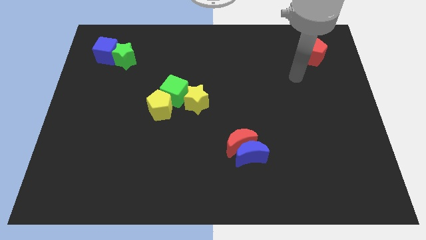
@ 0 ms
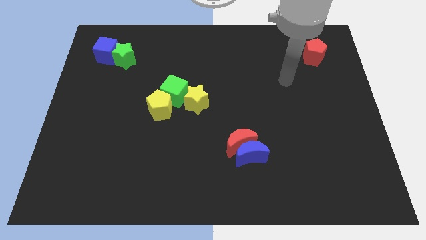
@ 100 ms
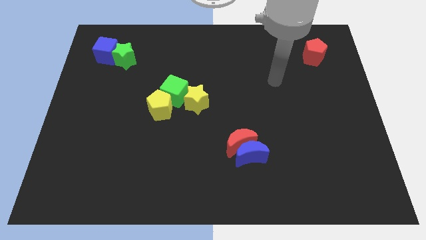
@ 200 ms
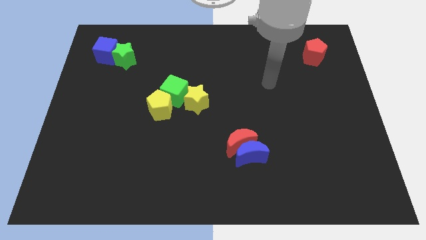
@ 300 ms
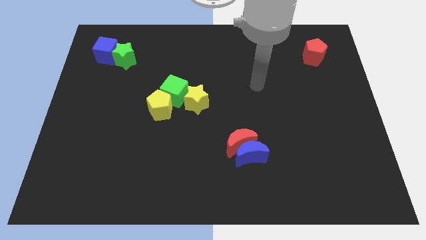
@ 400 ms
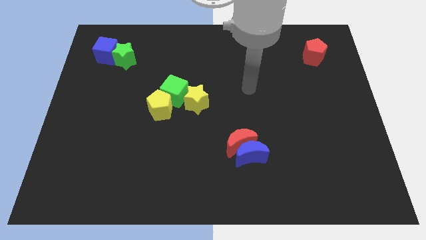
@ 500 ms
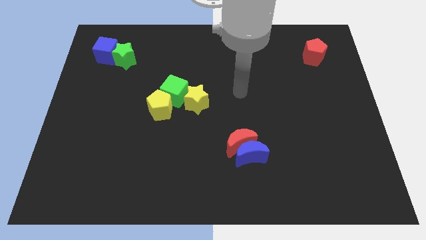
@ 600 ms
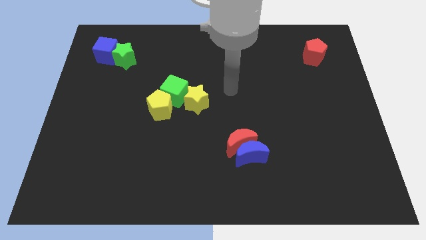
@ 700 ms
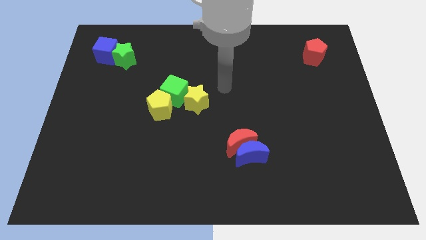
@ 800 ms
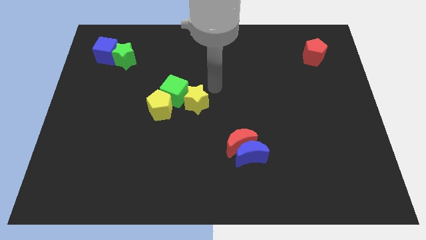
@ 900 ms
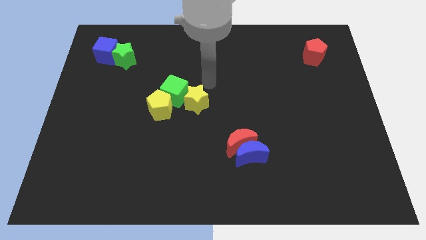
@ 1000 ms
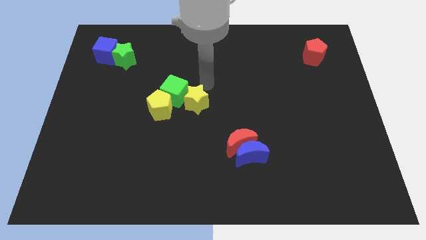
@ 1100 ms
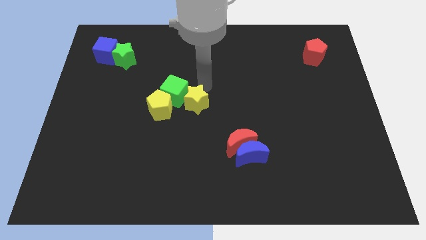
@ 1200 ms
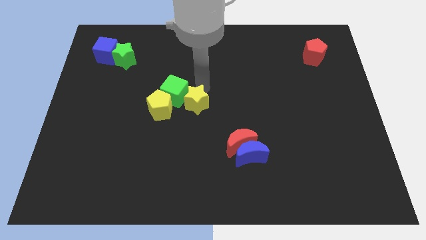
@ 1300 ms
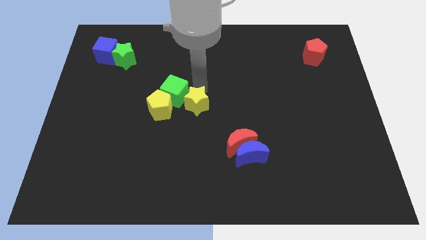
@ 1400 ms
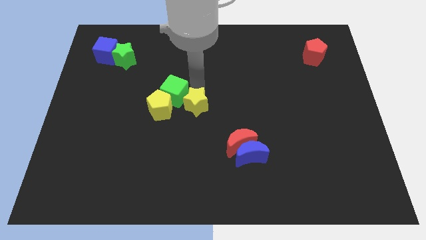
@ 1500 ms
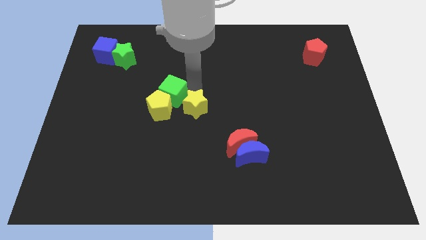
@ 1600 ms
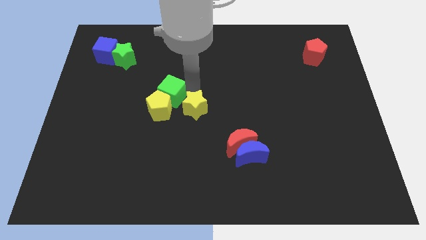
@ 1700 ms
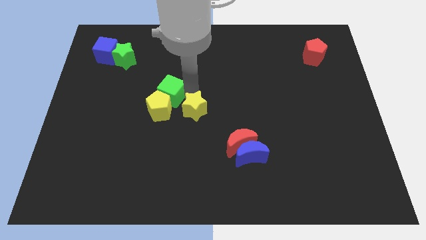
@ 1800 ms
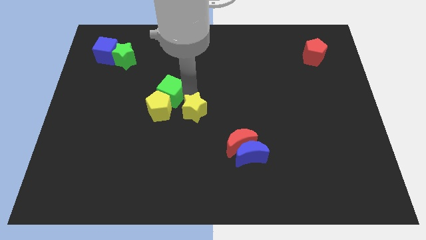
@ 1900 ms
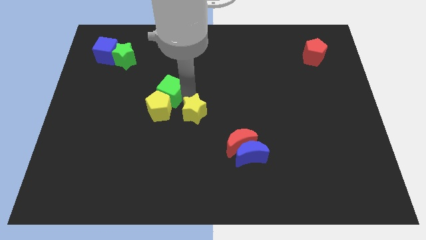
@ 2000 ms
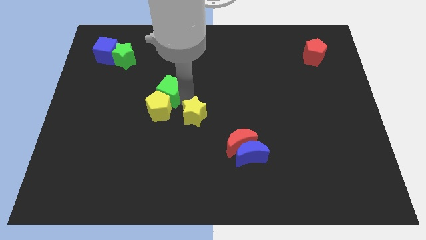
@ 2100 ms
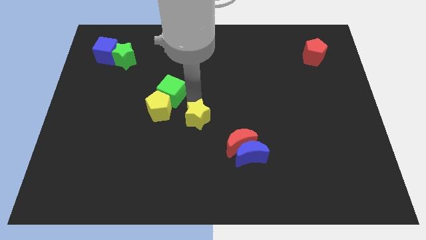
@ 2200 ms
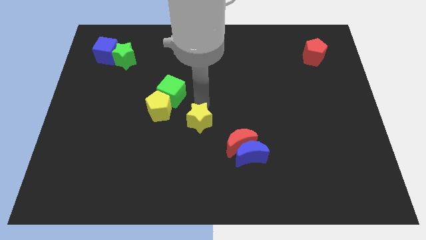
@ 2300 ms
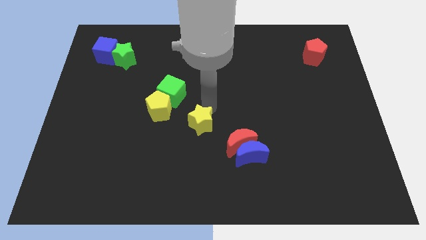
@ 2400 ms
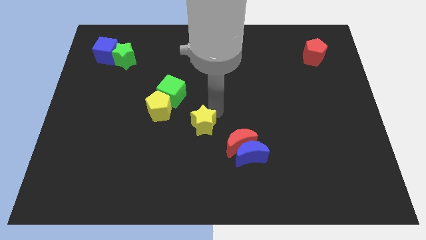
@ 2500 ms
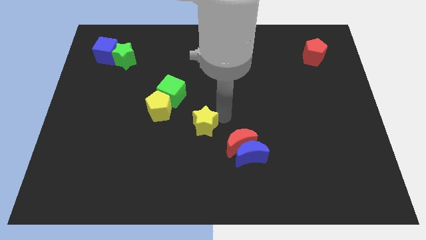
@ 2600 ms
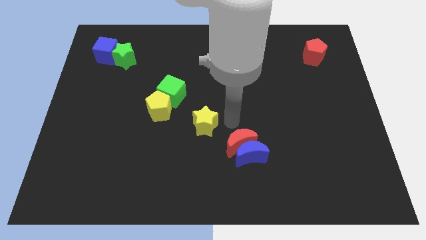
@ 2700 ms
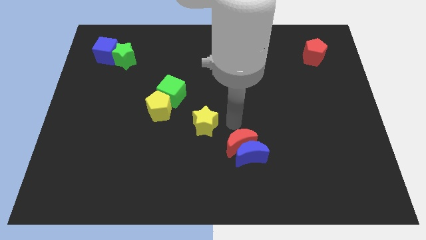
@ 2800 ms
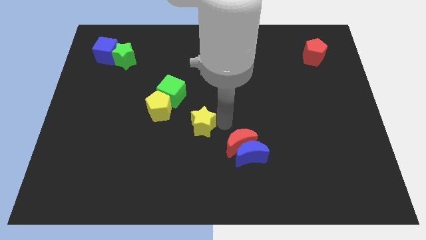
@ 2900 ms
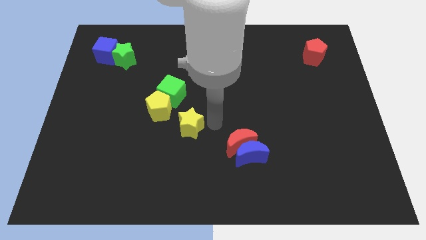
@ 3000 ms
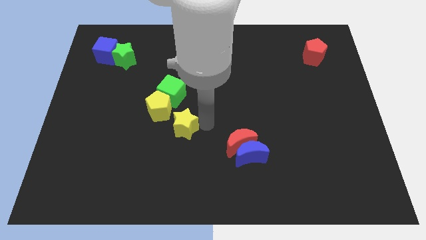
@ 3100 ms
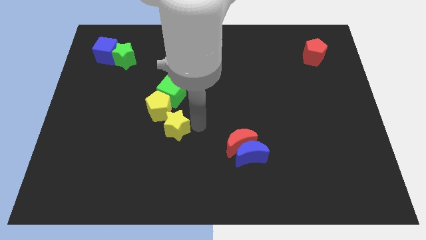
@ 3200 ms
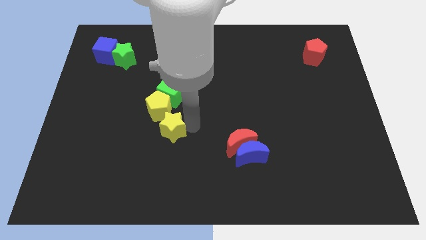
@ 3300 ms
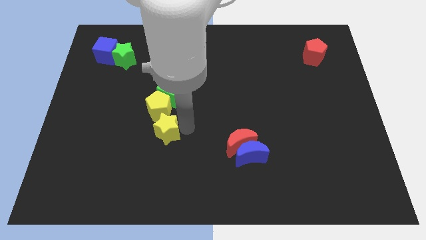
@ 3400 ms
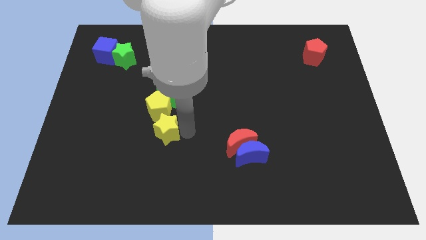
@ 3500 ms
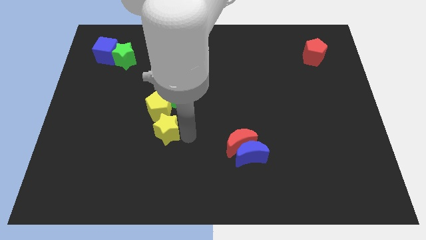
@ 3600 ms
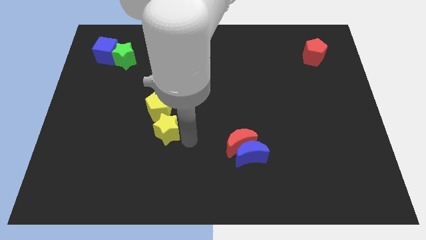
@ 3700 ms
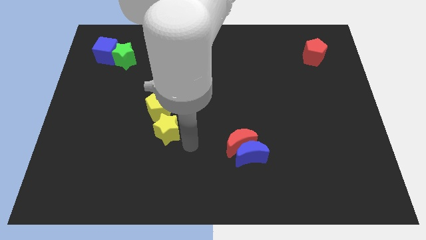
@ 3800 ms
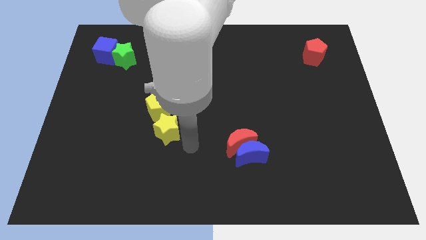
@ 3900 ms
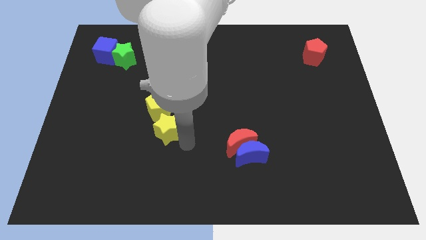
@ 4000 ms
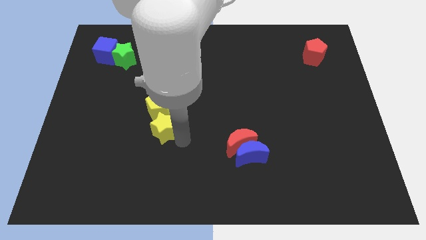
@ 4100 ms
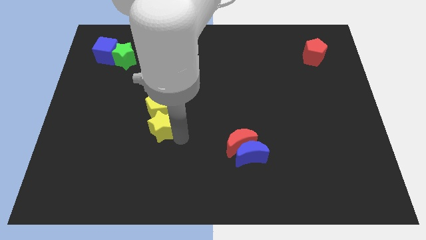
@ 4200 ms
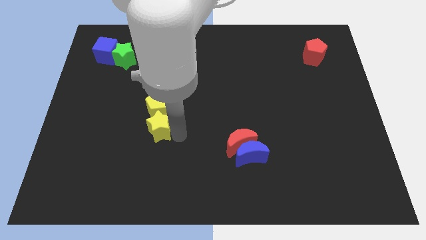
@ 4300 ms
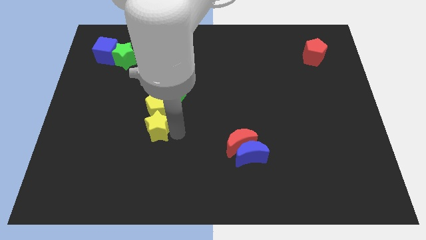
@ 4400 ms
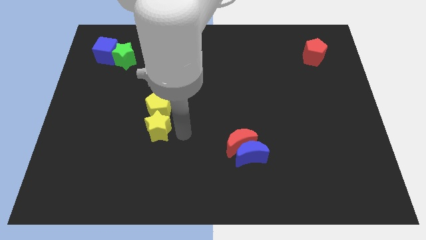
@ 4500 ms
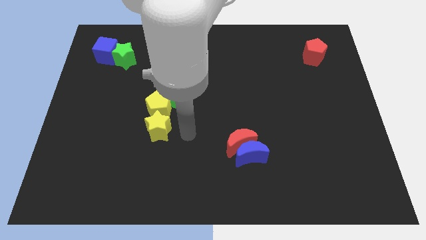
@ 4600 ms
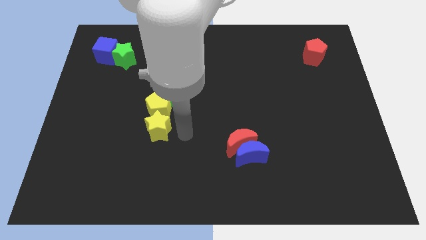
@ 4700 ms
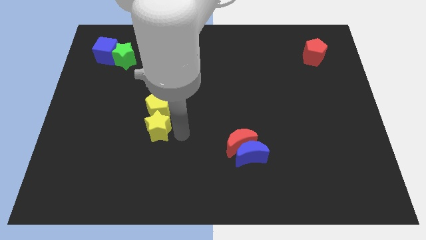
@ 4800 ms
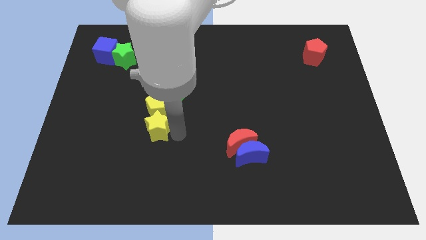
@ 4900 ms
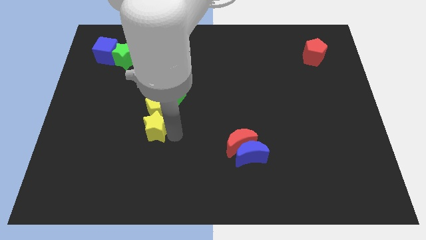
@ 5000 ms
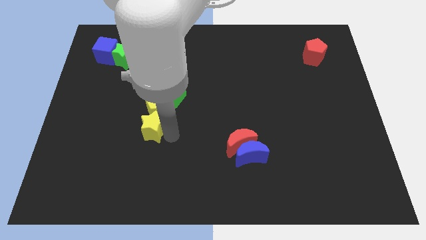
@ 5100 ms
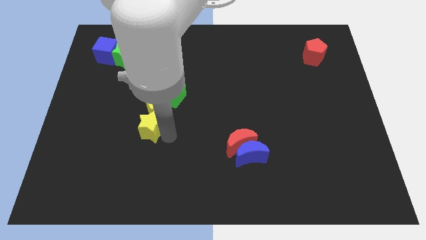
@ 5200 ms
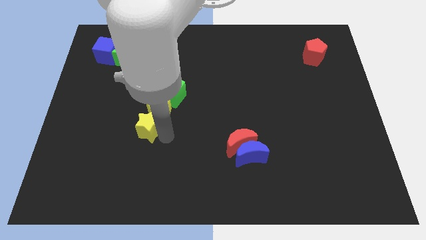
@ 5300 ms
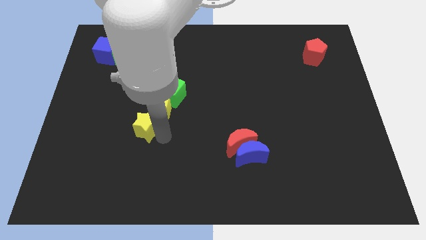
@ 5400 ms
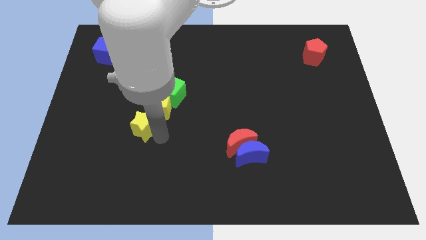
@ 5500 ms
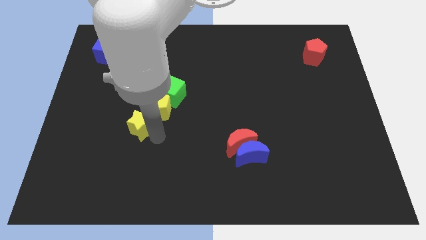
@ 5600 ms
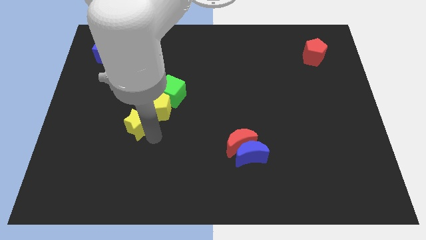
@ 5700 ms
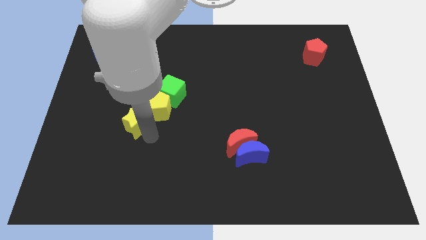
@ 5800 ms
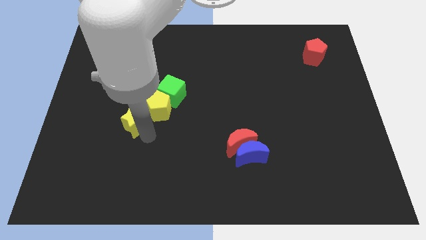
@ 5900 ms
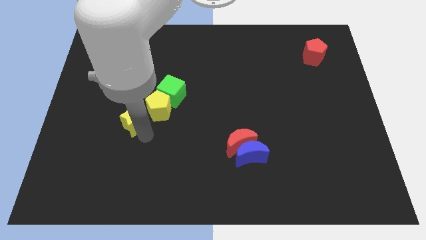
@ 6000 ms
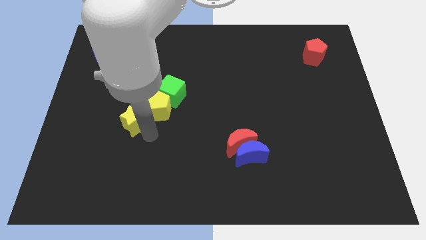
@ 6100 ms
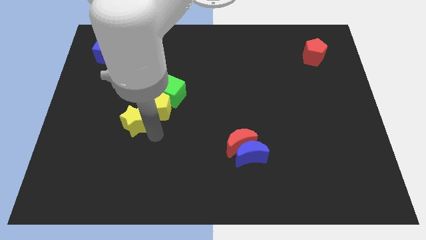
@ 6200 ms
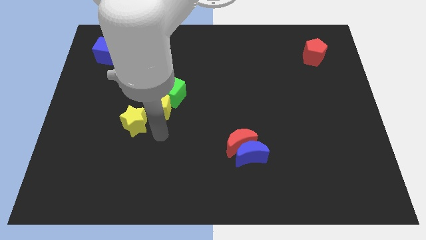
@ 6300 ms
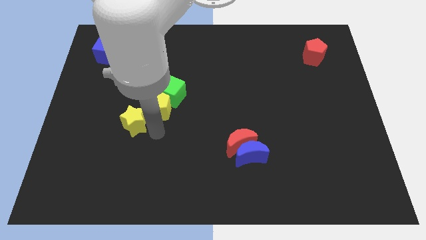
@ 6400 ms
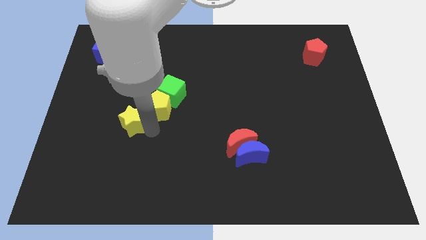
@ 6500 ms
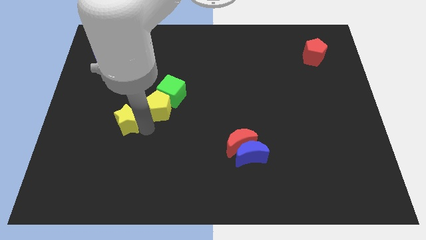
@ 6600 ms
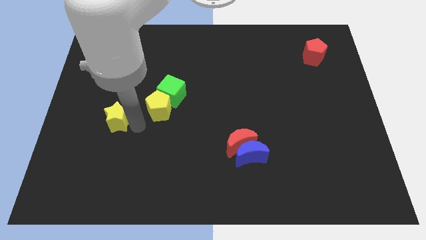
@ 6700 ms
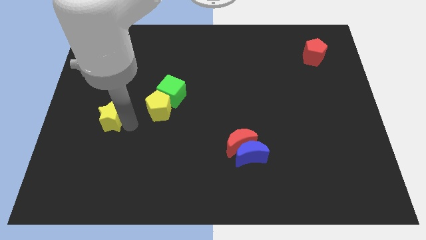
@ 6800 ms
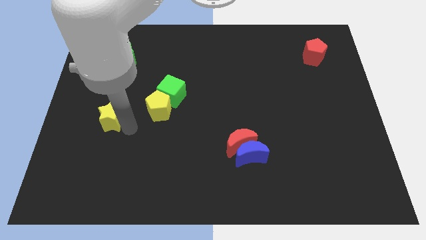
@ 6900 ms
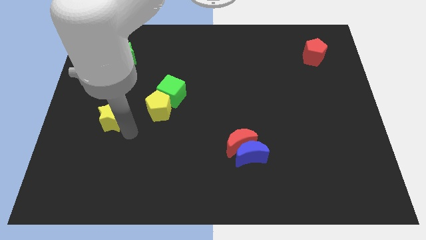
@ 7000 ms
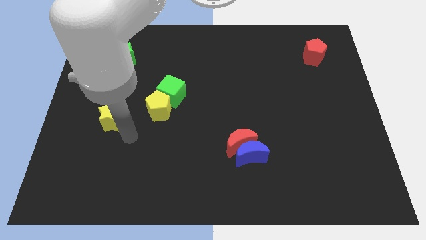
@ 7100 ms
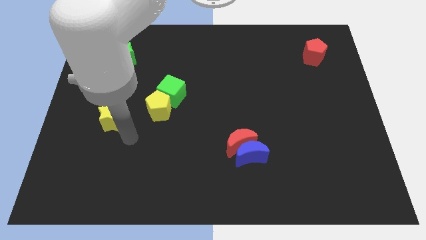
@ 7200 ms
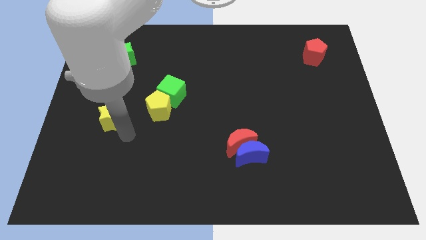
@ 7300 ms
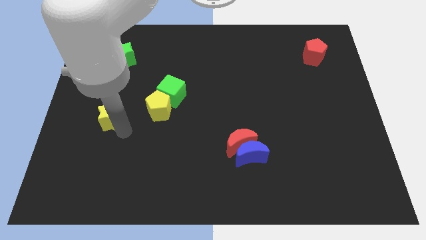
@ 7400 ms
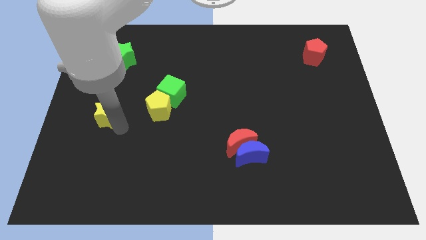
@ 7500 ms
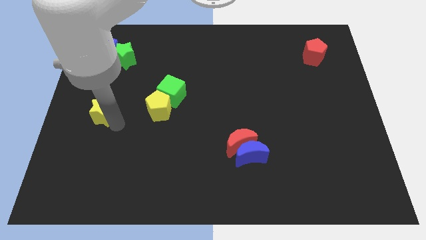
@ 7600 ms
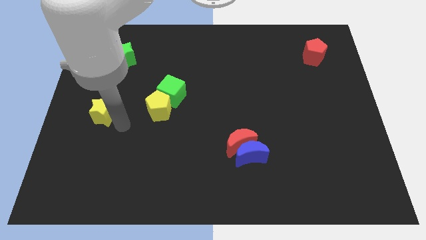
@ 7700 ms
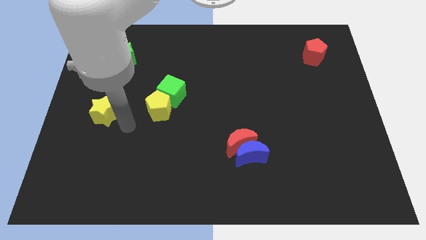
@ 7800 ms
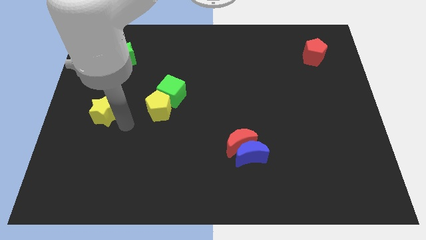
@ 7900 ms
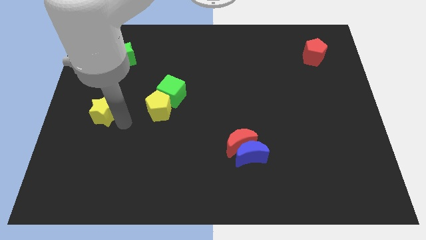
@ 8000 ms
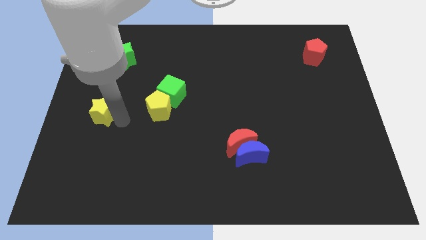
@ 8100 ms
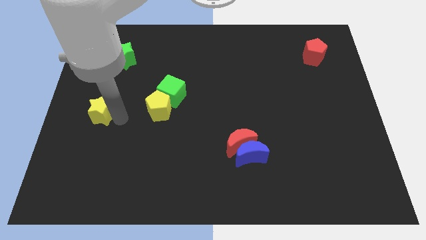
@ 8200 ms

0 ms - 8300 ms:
push the yellow star to the center left
